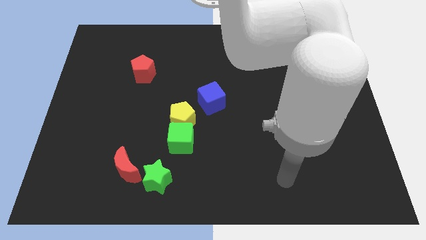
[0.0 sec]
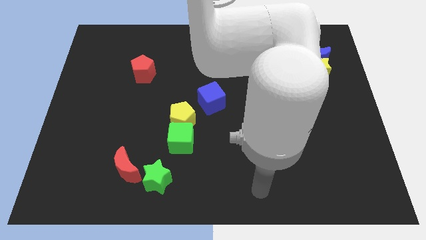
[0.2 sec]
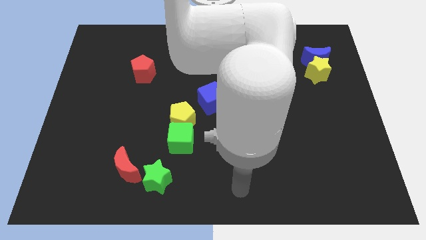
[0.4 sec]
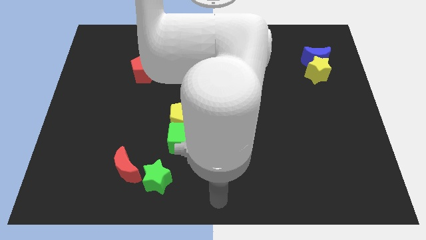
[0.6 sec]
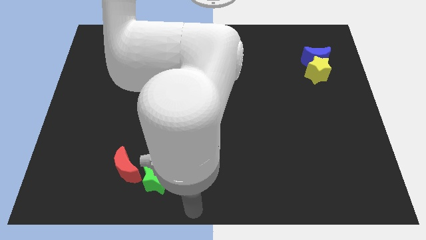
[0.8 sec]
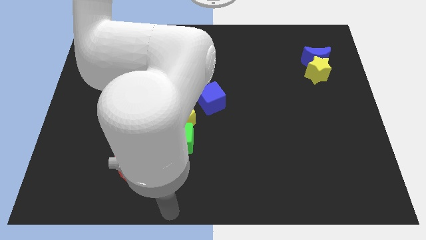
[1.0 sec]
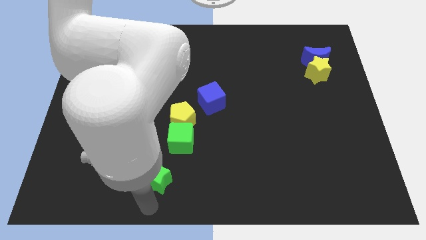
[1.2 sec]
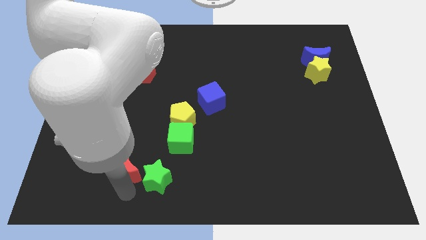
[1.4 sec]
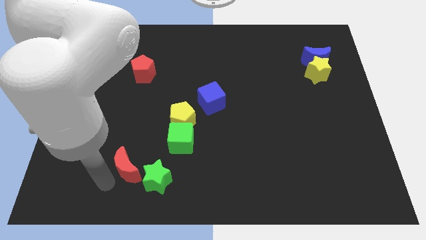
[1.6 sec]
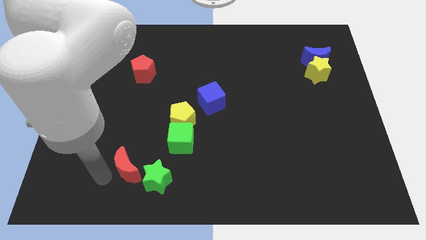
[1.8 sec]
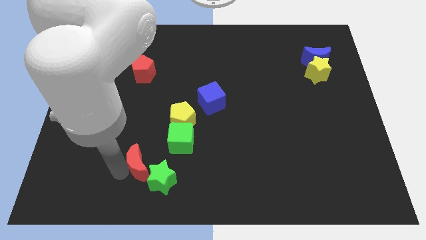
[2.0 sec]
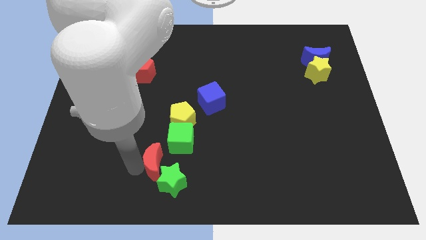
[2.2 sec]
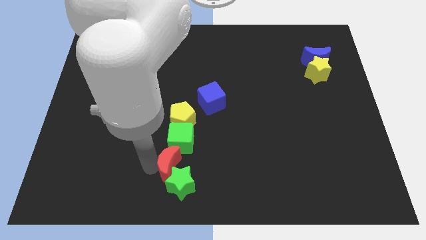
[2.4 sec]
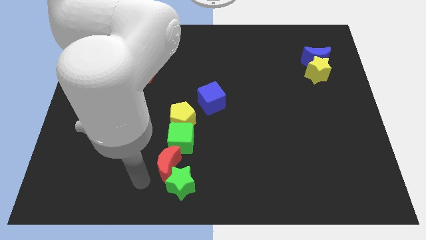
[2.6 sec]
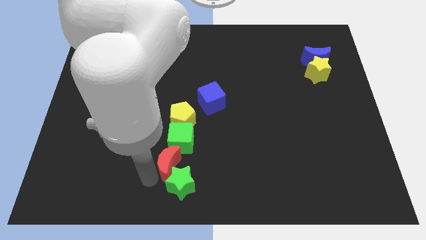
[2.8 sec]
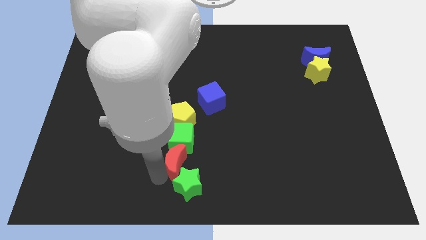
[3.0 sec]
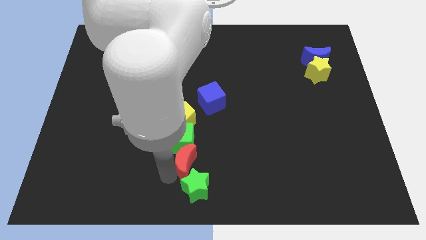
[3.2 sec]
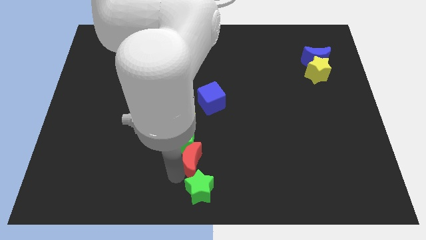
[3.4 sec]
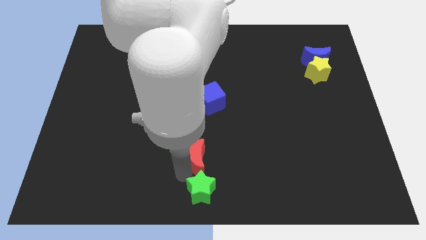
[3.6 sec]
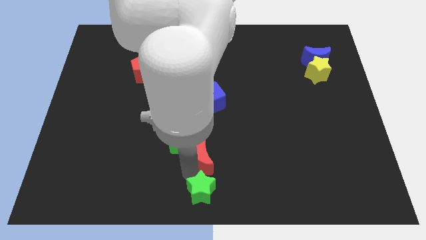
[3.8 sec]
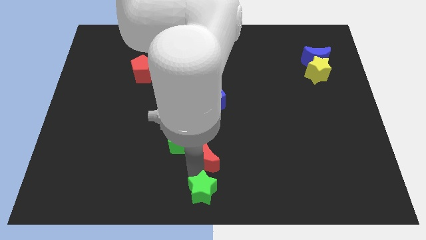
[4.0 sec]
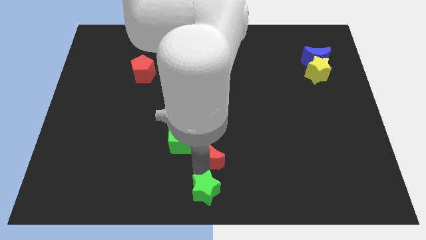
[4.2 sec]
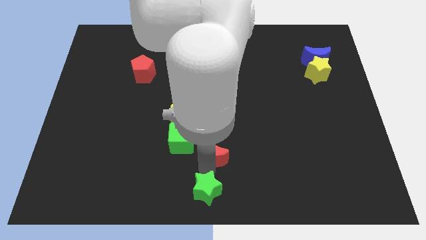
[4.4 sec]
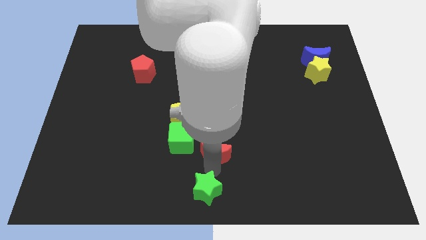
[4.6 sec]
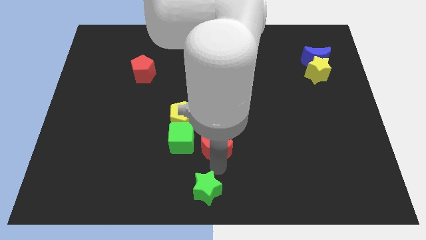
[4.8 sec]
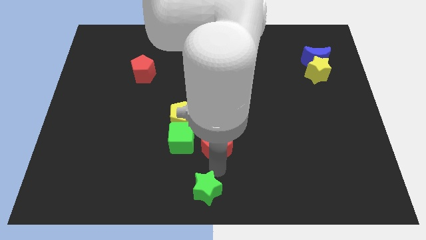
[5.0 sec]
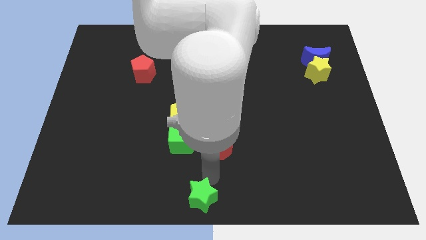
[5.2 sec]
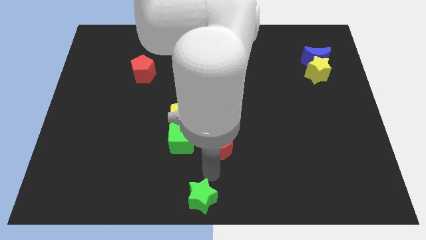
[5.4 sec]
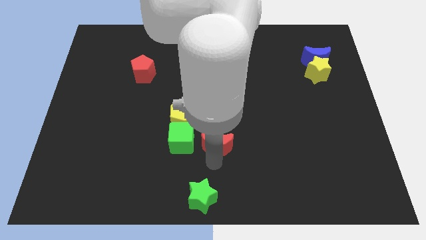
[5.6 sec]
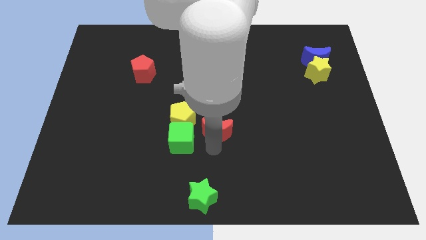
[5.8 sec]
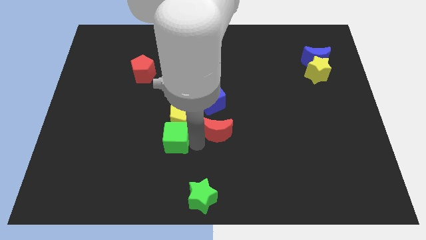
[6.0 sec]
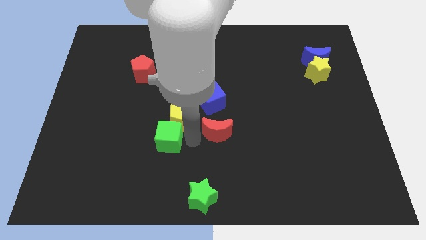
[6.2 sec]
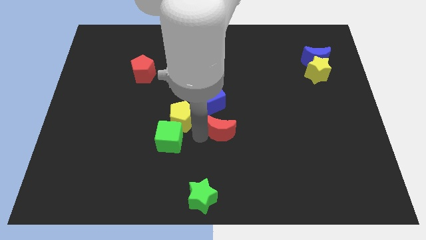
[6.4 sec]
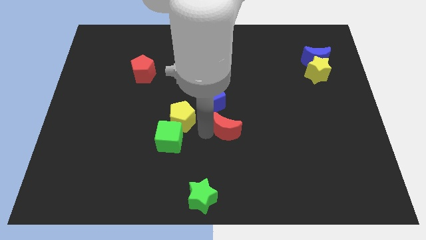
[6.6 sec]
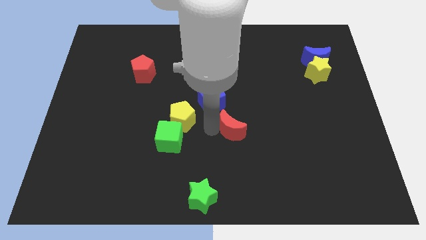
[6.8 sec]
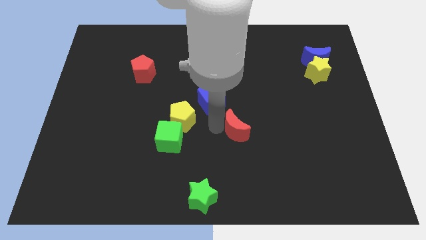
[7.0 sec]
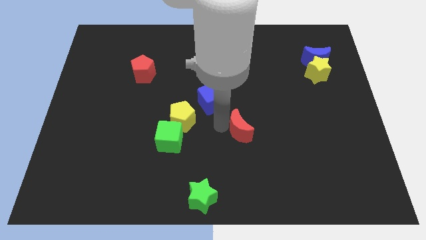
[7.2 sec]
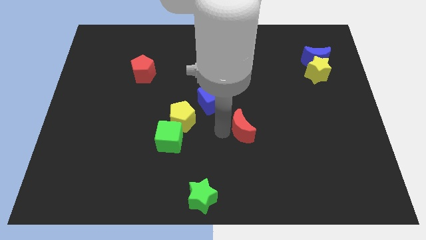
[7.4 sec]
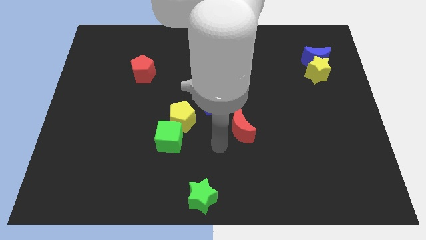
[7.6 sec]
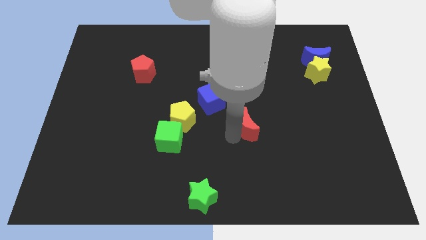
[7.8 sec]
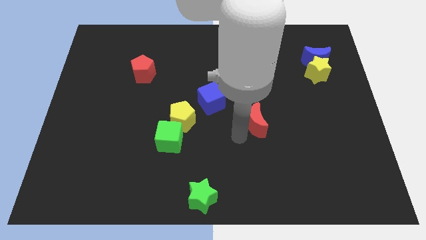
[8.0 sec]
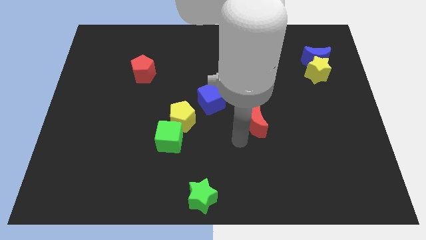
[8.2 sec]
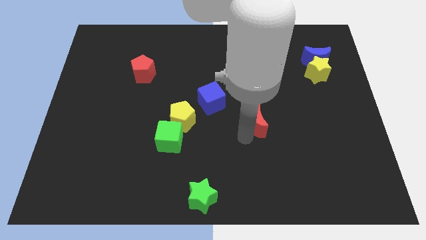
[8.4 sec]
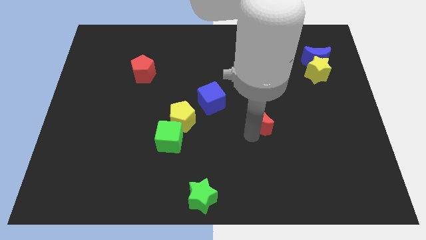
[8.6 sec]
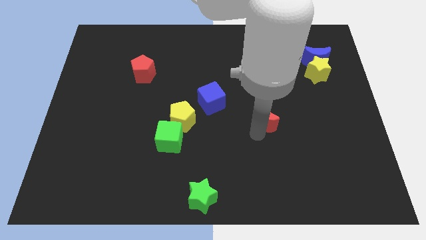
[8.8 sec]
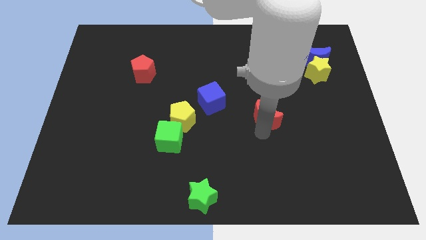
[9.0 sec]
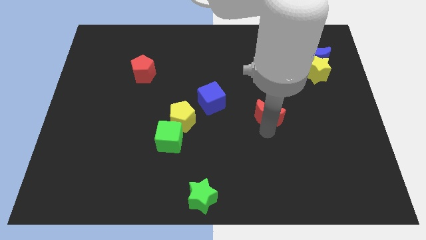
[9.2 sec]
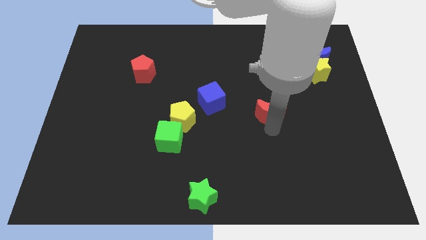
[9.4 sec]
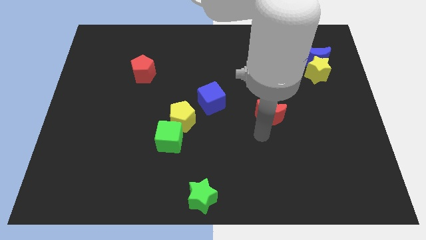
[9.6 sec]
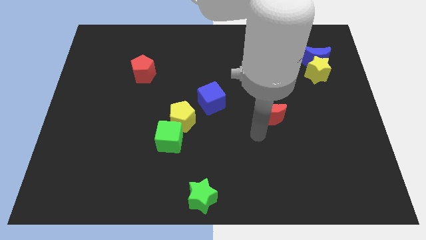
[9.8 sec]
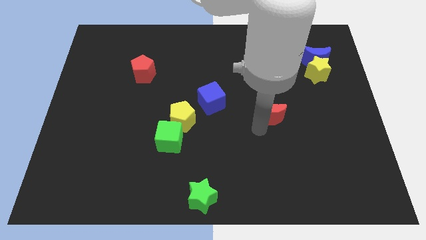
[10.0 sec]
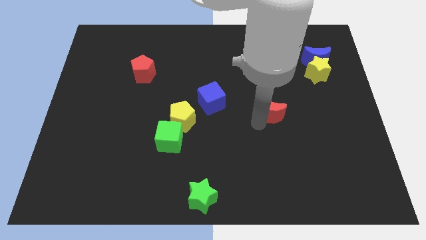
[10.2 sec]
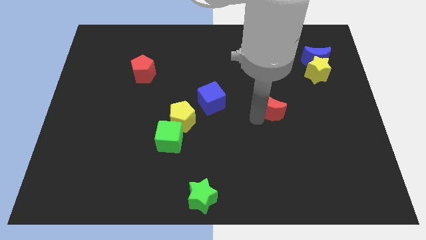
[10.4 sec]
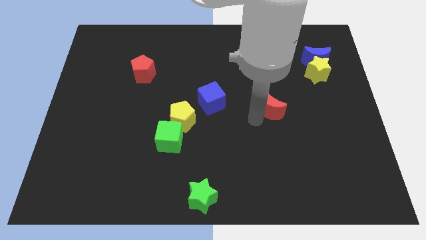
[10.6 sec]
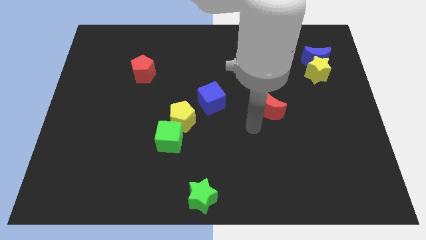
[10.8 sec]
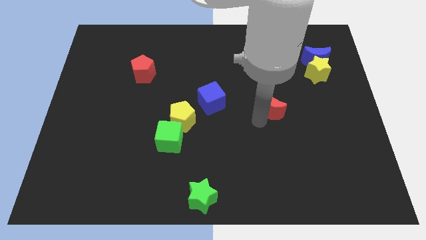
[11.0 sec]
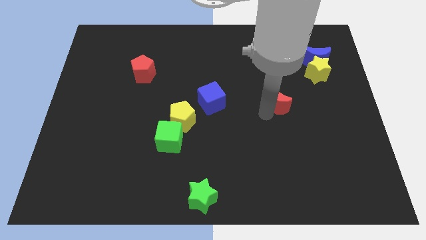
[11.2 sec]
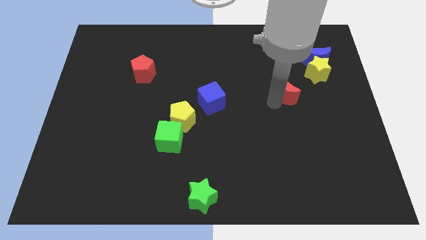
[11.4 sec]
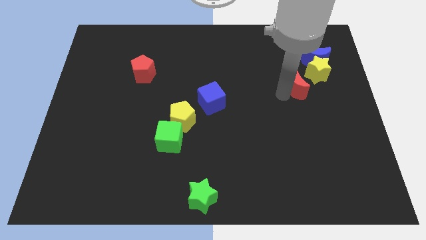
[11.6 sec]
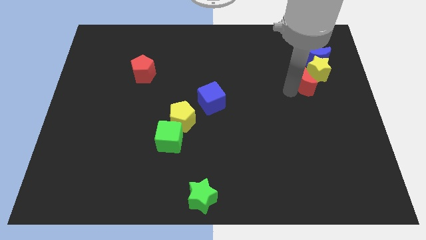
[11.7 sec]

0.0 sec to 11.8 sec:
push the red moon close to the yellow star

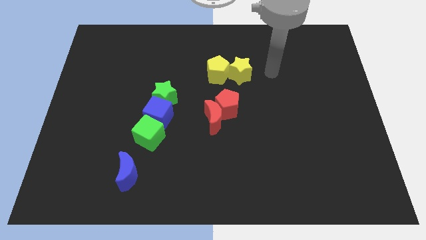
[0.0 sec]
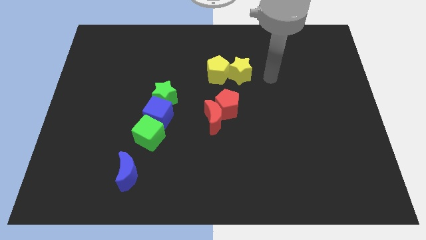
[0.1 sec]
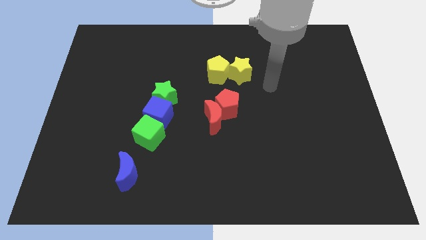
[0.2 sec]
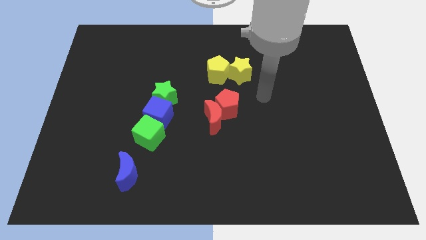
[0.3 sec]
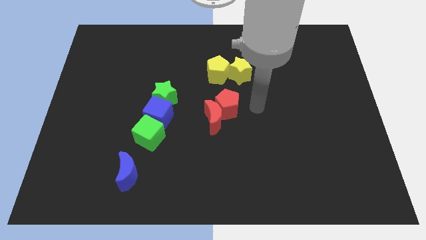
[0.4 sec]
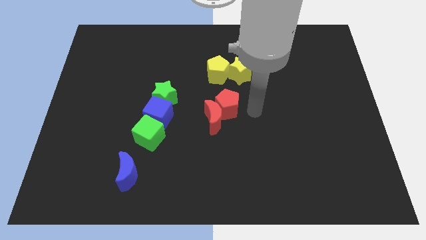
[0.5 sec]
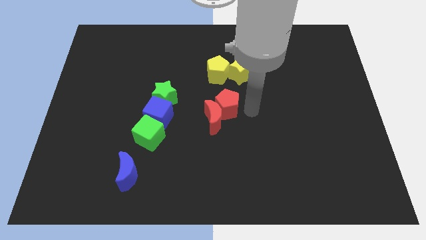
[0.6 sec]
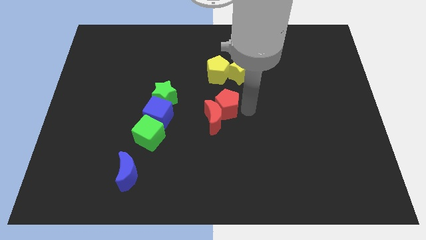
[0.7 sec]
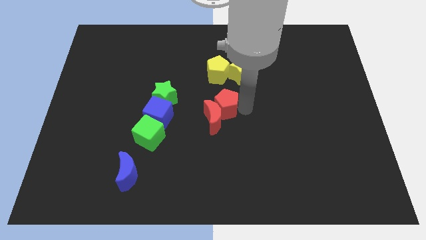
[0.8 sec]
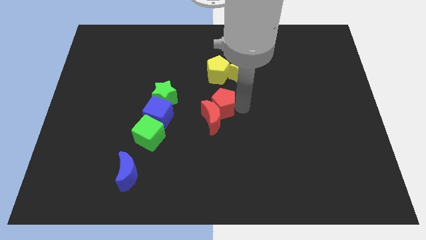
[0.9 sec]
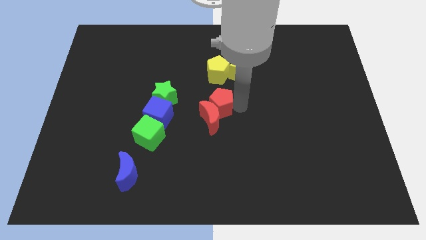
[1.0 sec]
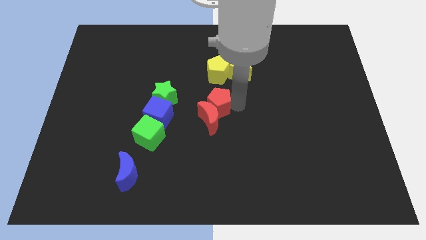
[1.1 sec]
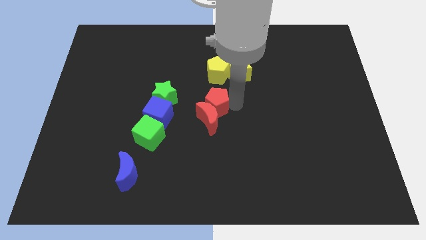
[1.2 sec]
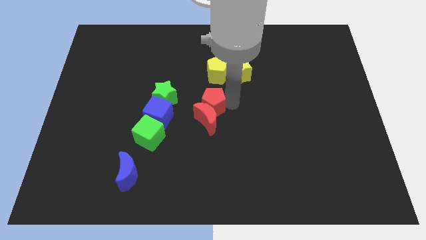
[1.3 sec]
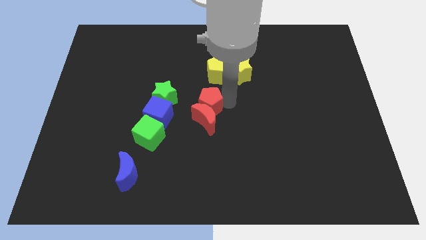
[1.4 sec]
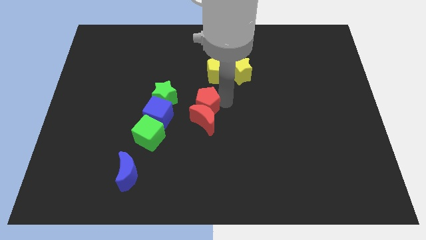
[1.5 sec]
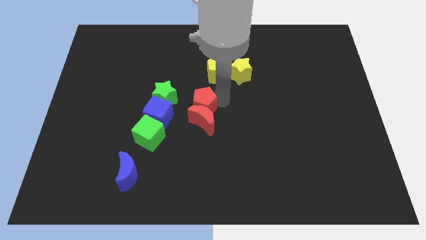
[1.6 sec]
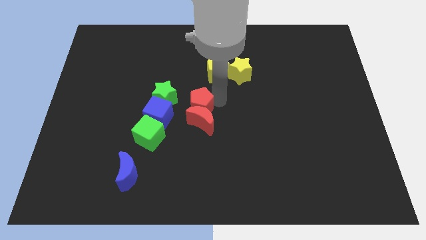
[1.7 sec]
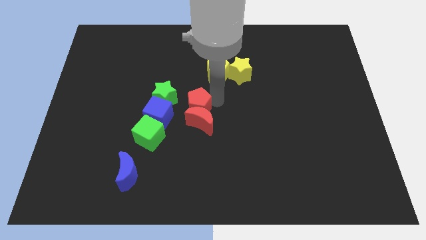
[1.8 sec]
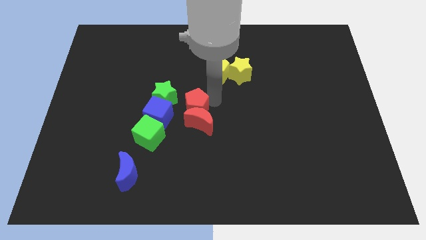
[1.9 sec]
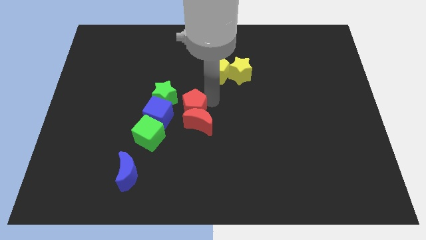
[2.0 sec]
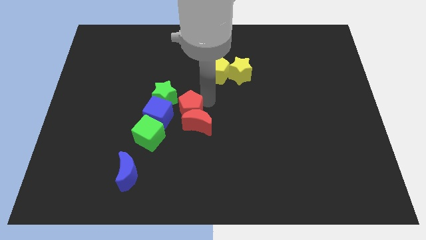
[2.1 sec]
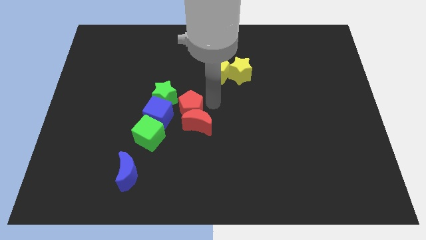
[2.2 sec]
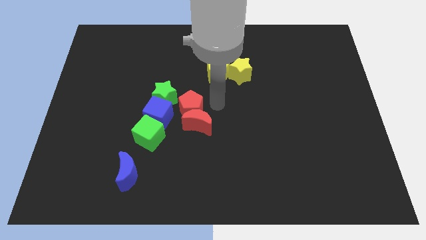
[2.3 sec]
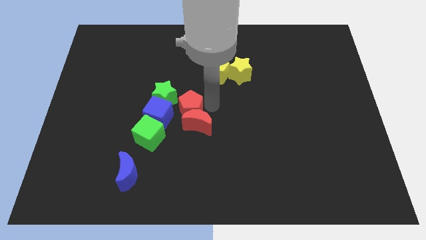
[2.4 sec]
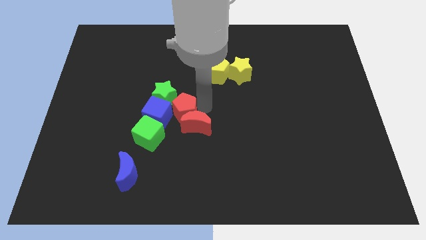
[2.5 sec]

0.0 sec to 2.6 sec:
slide the red pentagon to the blue cube
